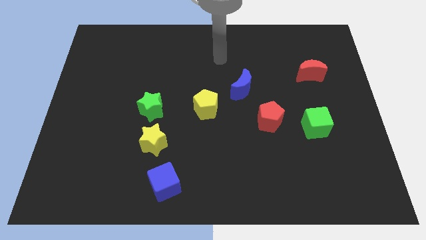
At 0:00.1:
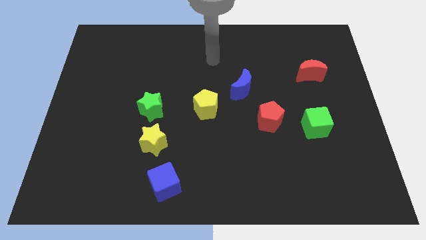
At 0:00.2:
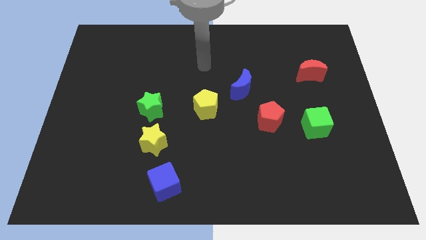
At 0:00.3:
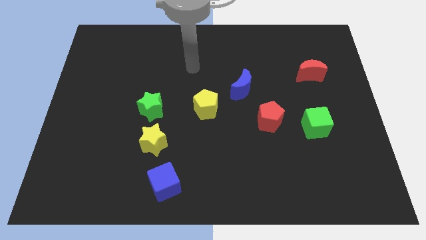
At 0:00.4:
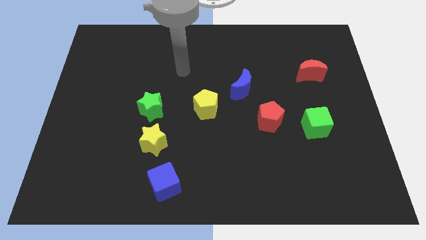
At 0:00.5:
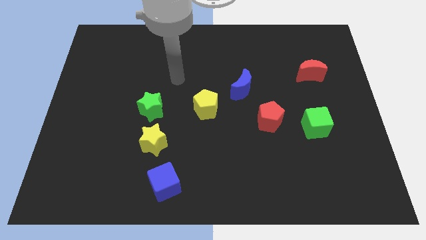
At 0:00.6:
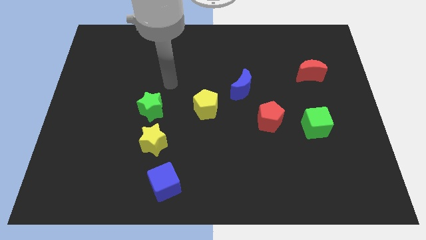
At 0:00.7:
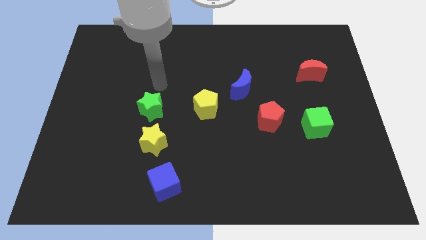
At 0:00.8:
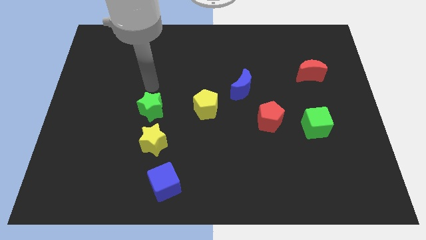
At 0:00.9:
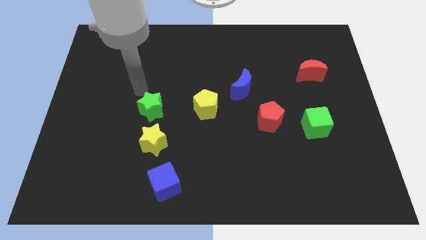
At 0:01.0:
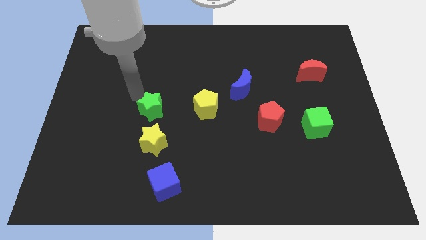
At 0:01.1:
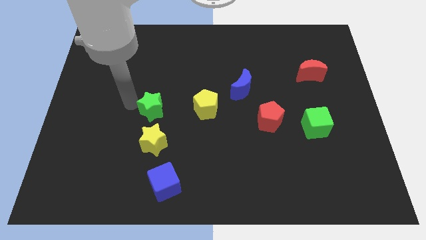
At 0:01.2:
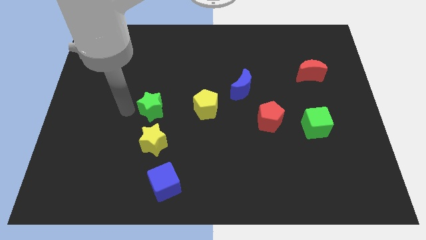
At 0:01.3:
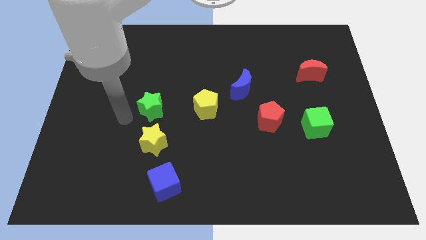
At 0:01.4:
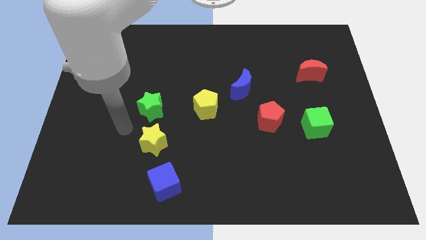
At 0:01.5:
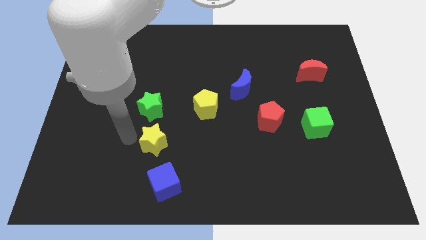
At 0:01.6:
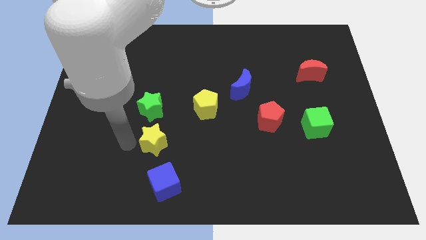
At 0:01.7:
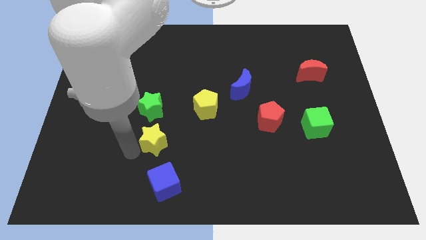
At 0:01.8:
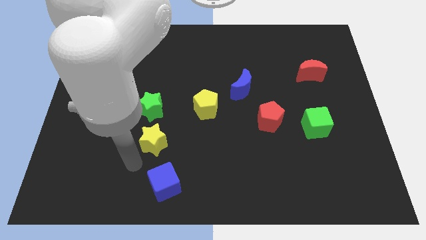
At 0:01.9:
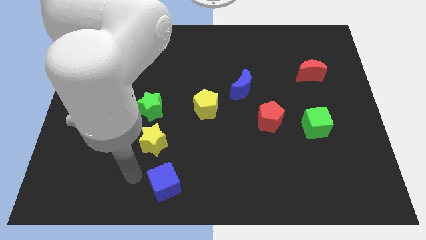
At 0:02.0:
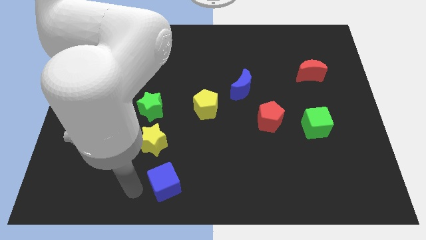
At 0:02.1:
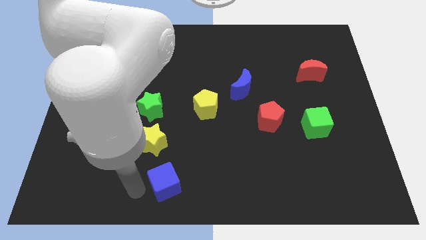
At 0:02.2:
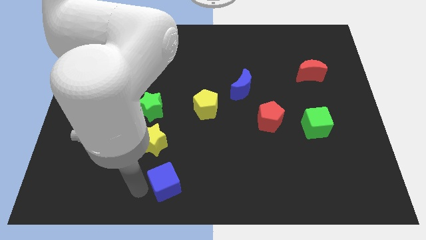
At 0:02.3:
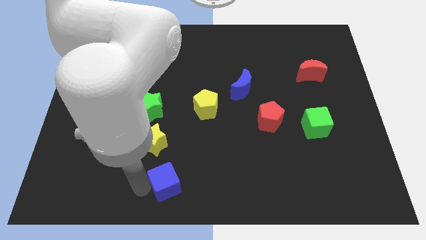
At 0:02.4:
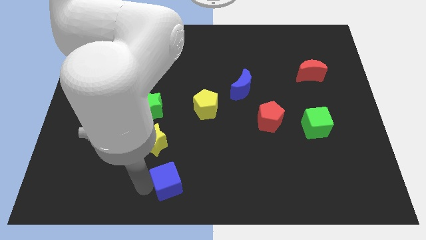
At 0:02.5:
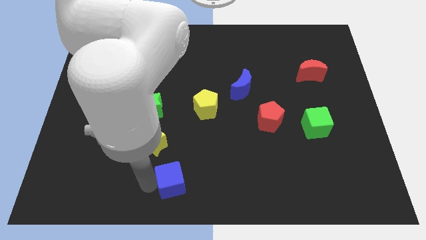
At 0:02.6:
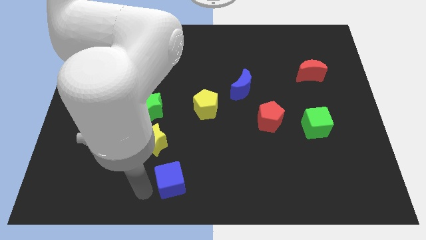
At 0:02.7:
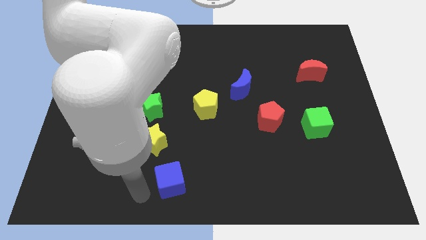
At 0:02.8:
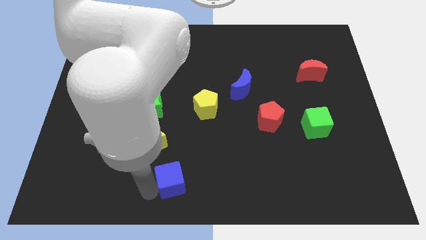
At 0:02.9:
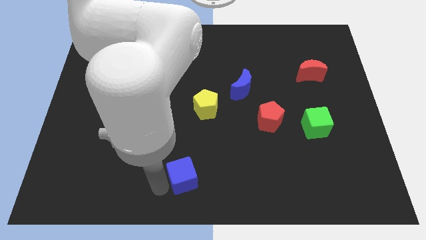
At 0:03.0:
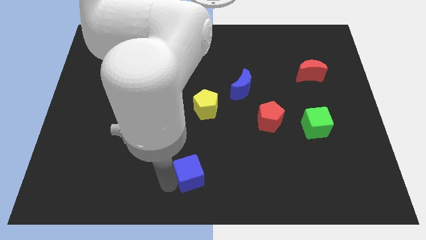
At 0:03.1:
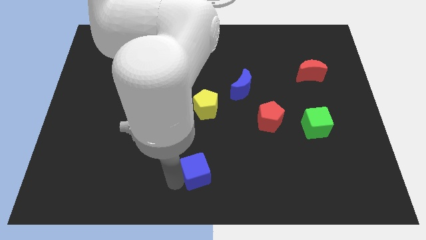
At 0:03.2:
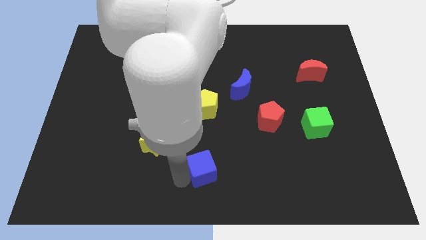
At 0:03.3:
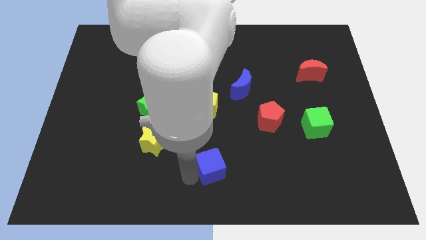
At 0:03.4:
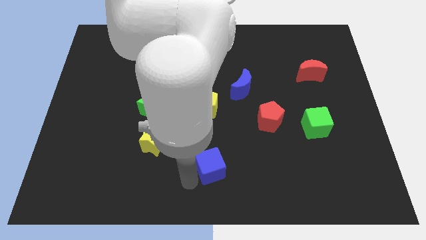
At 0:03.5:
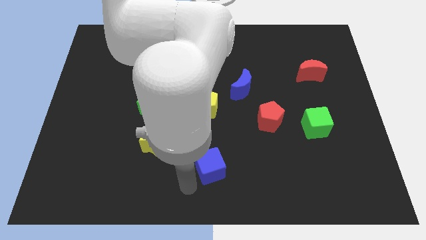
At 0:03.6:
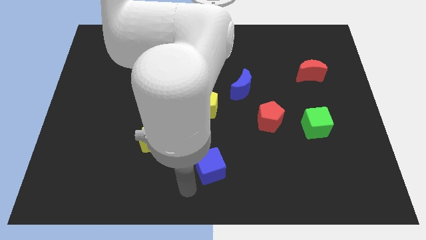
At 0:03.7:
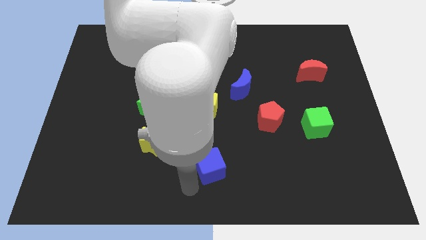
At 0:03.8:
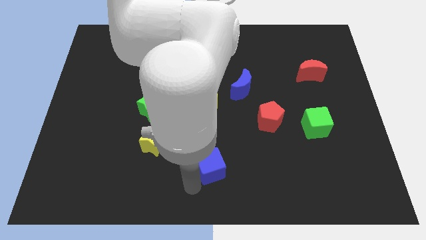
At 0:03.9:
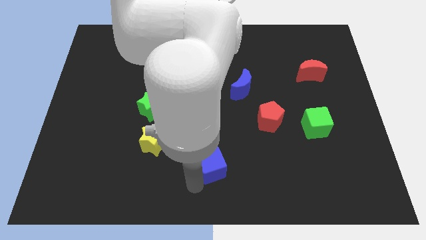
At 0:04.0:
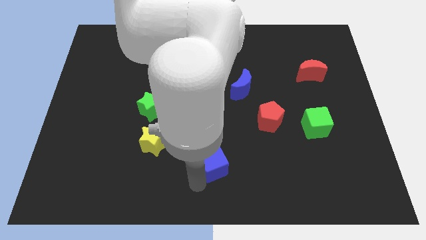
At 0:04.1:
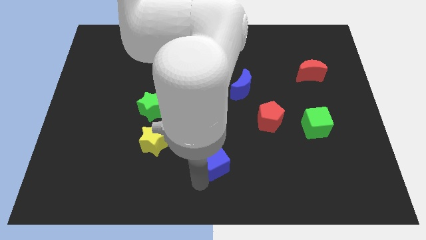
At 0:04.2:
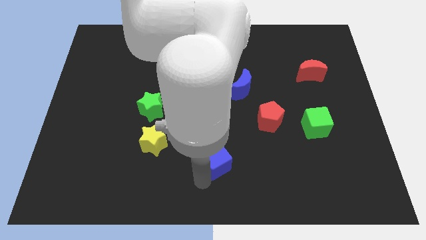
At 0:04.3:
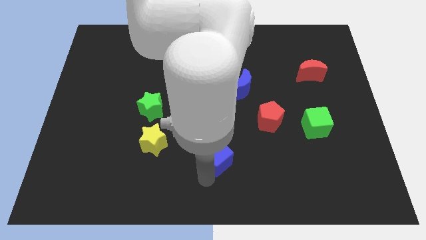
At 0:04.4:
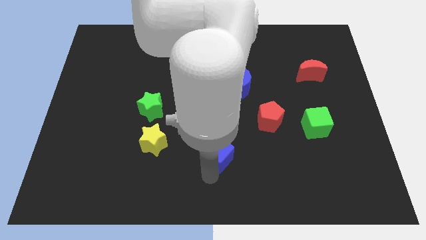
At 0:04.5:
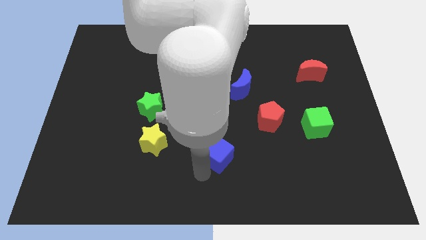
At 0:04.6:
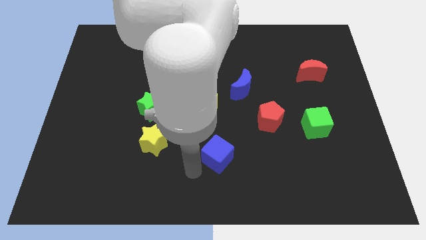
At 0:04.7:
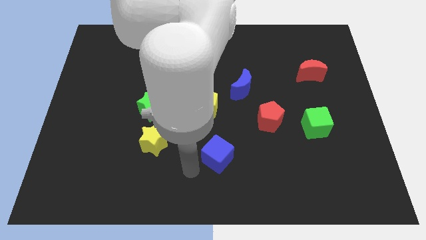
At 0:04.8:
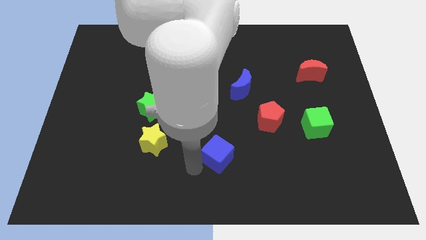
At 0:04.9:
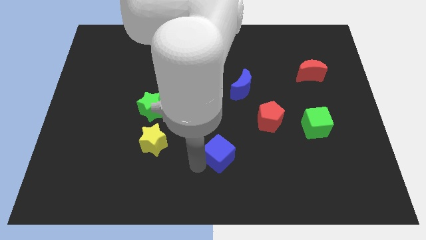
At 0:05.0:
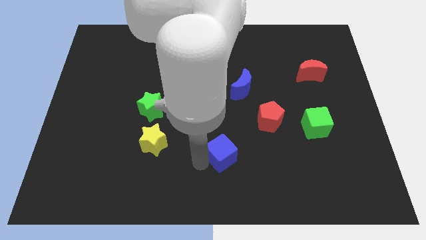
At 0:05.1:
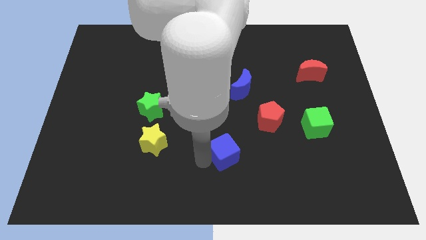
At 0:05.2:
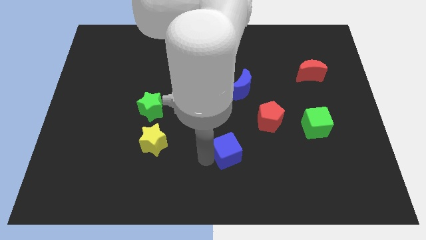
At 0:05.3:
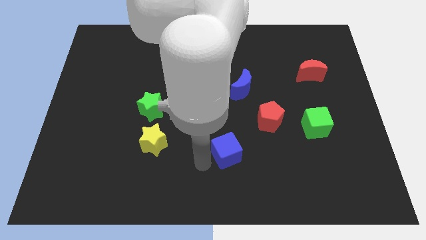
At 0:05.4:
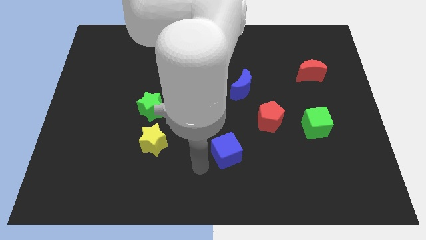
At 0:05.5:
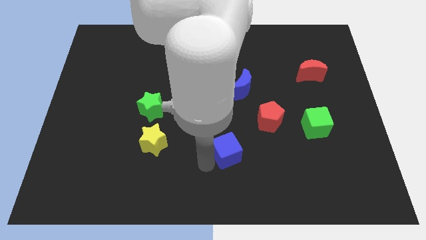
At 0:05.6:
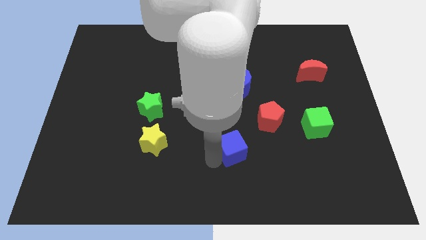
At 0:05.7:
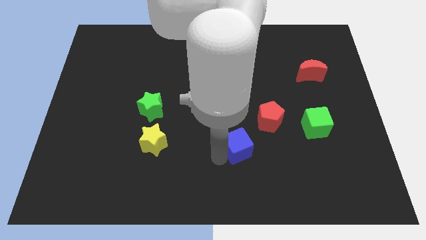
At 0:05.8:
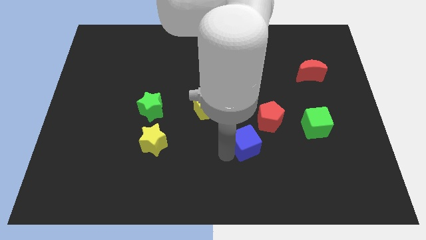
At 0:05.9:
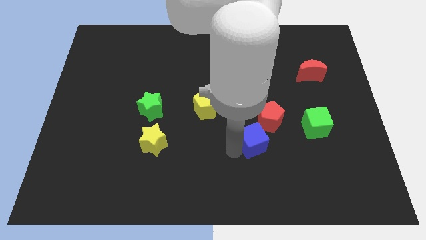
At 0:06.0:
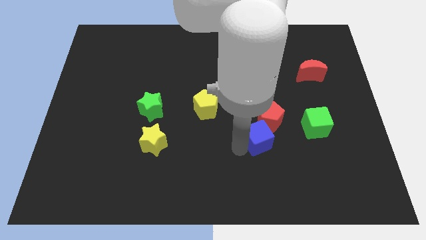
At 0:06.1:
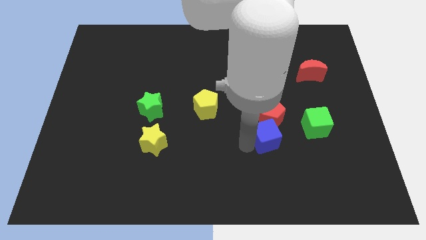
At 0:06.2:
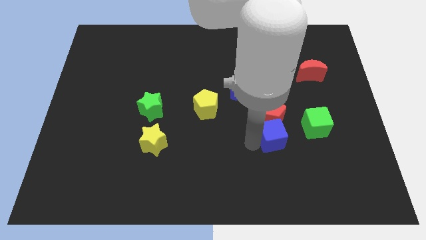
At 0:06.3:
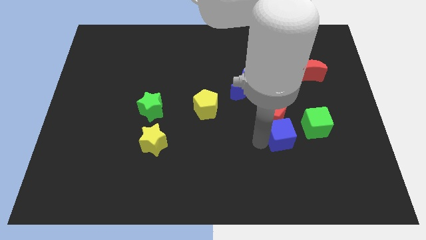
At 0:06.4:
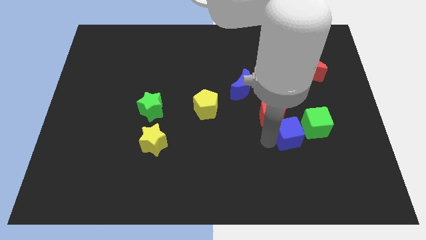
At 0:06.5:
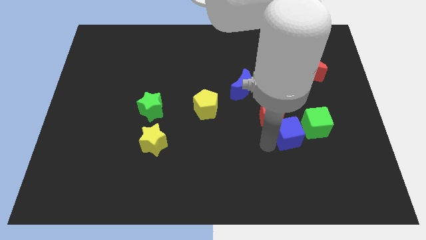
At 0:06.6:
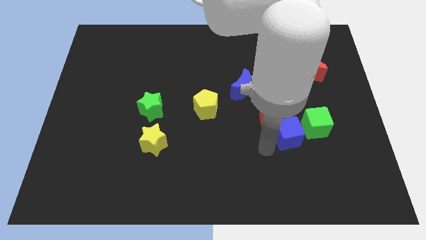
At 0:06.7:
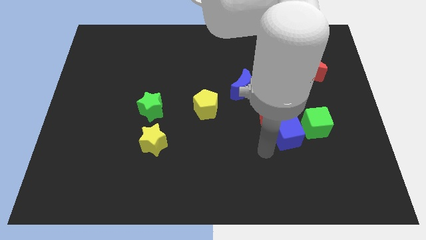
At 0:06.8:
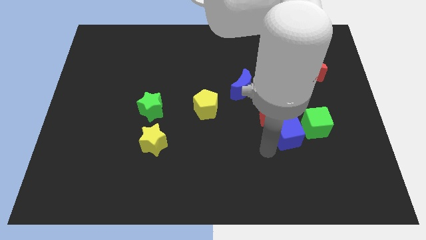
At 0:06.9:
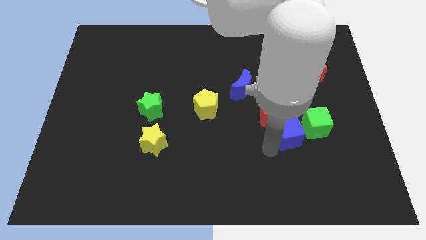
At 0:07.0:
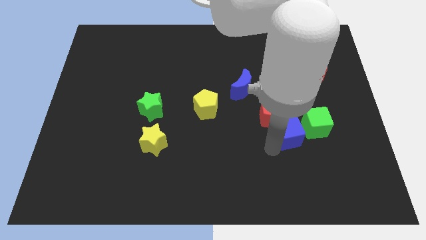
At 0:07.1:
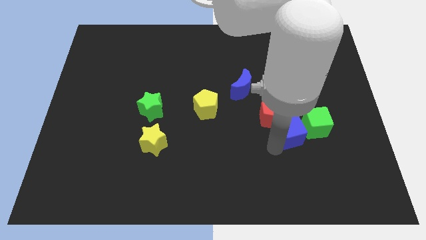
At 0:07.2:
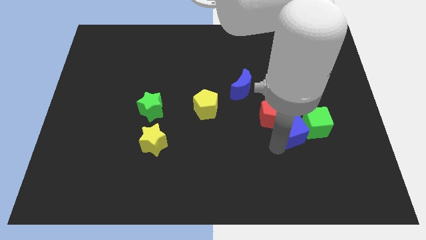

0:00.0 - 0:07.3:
put the blue cube to the green cube
